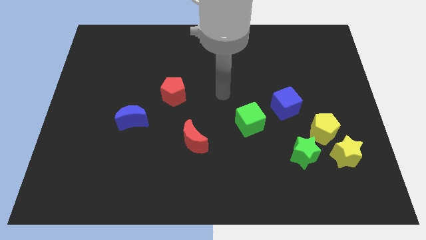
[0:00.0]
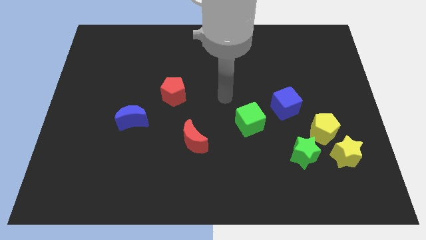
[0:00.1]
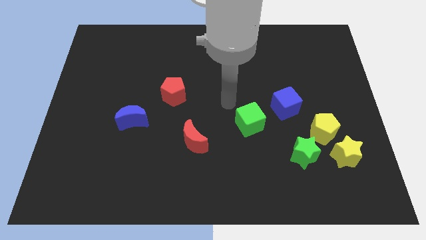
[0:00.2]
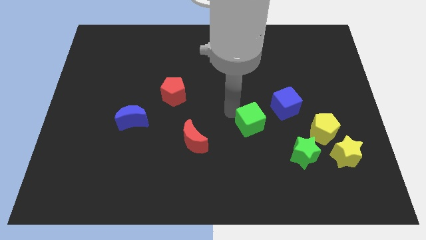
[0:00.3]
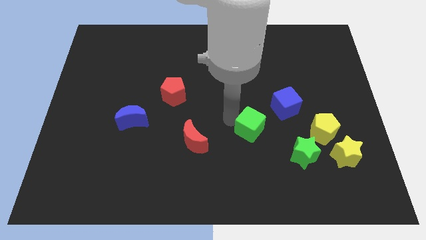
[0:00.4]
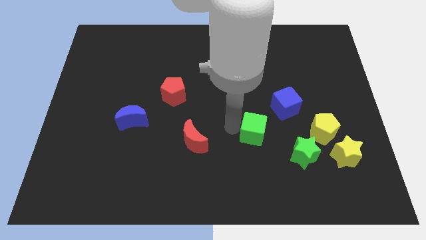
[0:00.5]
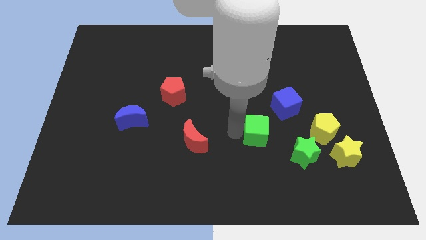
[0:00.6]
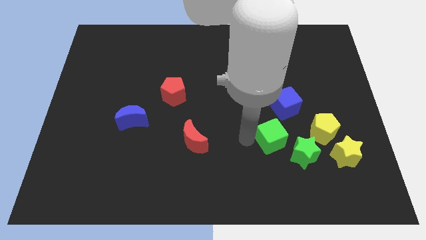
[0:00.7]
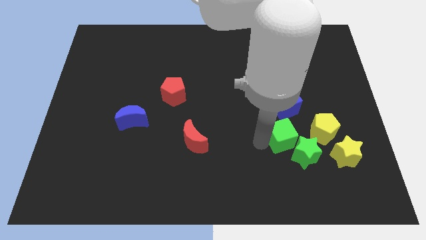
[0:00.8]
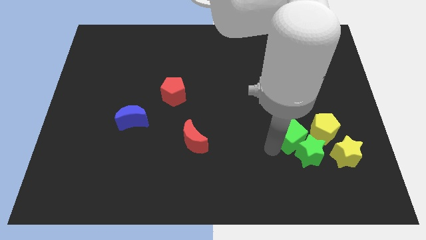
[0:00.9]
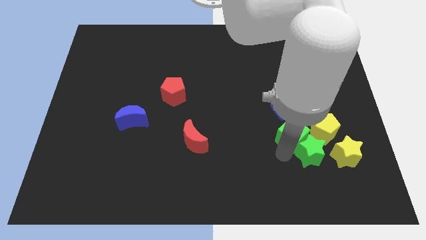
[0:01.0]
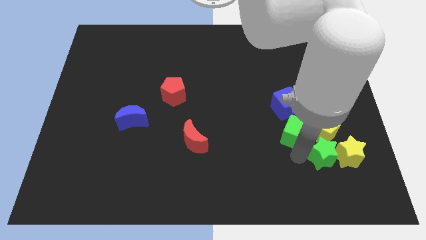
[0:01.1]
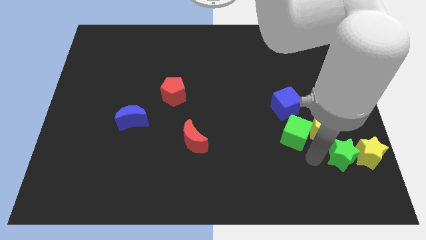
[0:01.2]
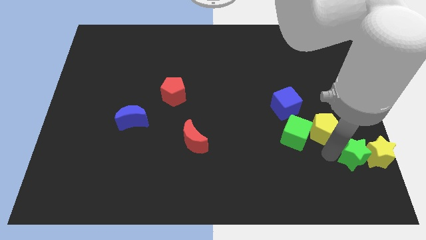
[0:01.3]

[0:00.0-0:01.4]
move the yellow pentagon away from the yellow star and green star

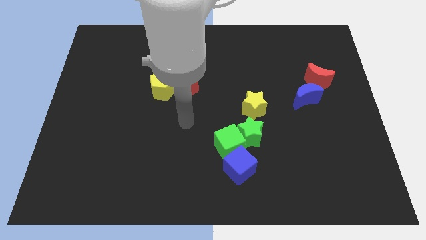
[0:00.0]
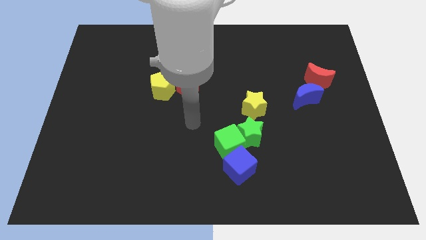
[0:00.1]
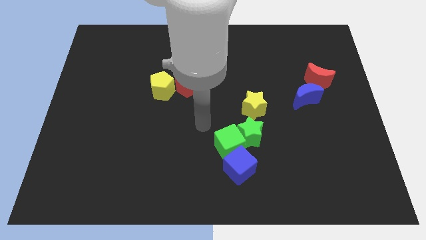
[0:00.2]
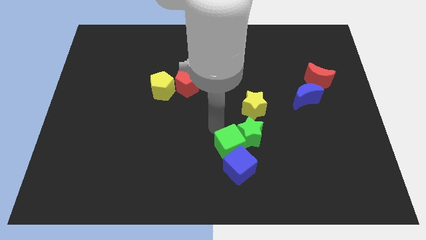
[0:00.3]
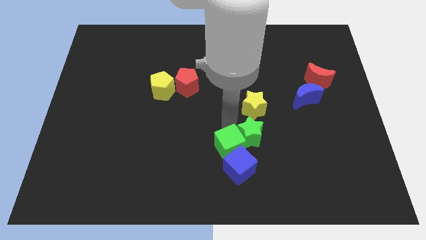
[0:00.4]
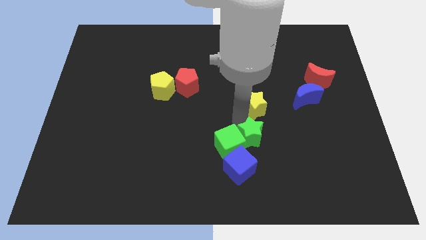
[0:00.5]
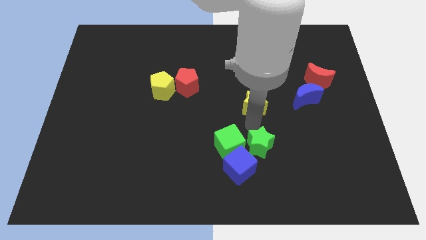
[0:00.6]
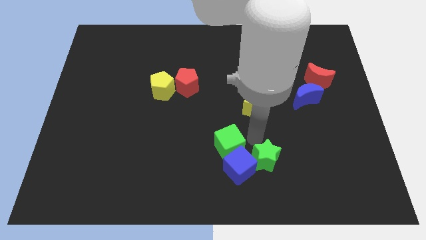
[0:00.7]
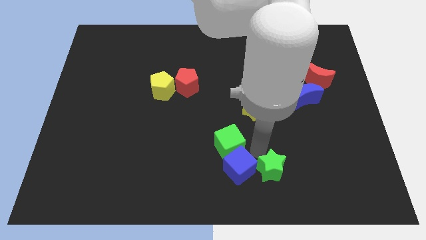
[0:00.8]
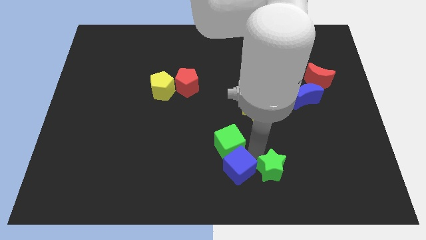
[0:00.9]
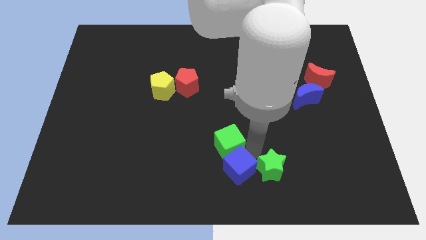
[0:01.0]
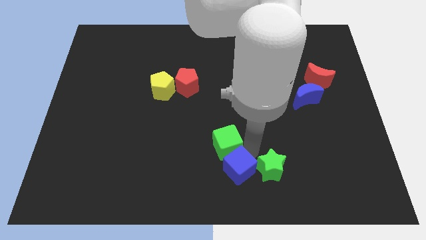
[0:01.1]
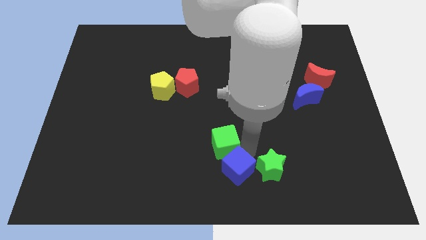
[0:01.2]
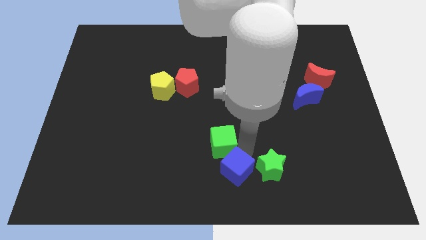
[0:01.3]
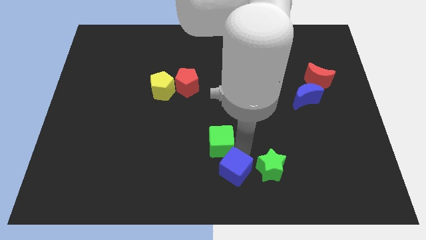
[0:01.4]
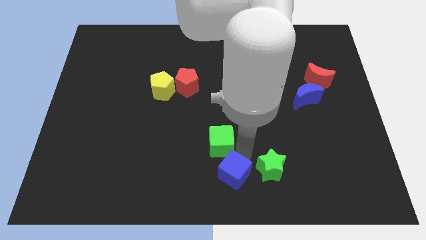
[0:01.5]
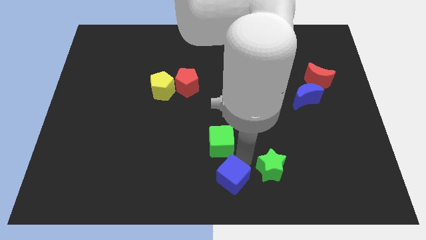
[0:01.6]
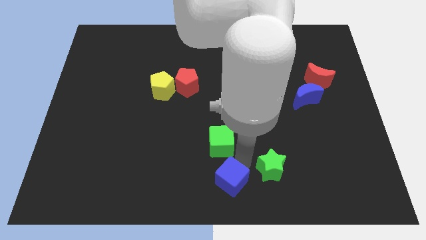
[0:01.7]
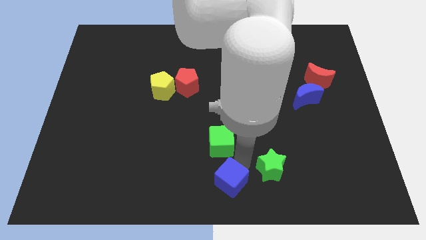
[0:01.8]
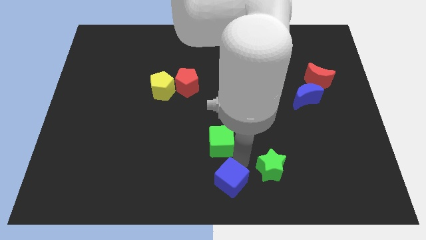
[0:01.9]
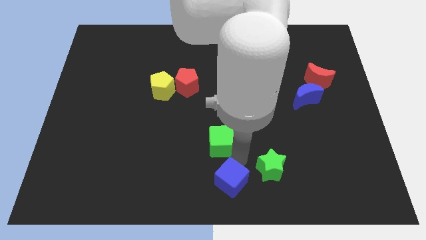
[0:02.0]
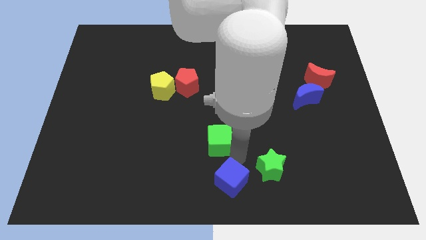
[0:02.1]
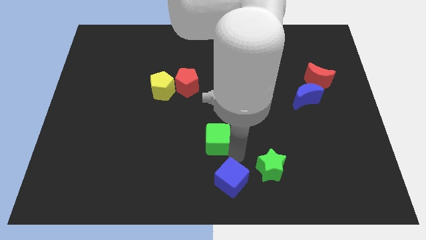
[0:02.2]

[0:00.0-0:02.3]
separate the green cube from the green star and blue cube

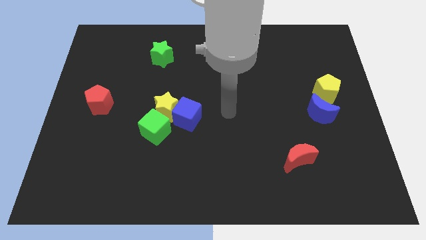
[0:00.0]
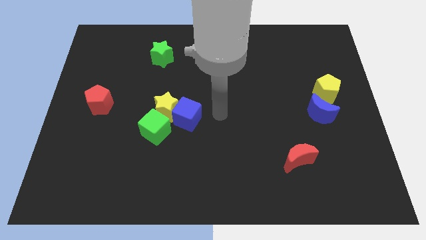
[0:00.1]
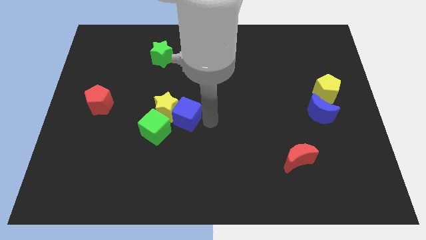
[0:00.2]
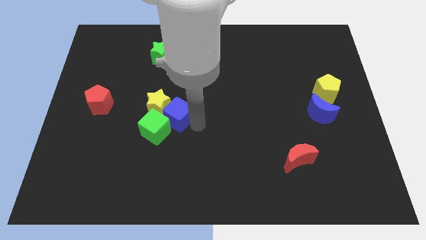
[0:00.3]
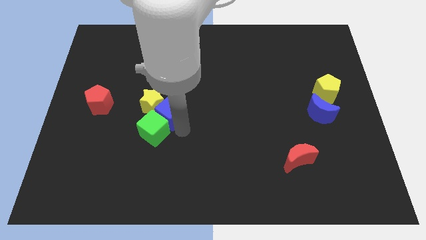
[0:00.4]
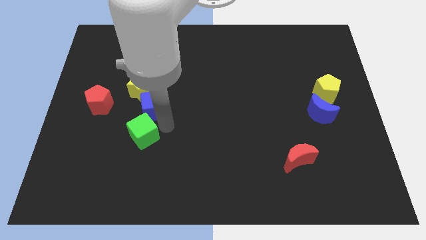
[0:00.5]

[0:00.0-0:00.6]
move the yellow star away from the blue cube and green cube

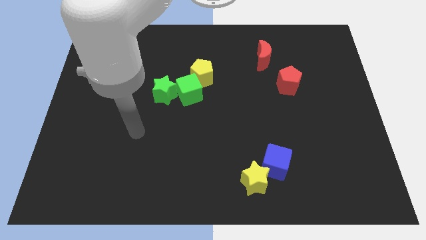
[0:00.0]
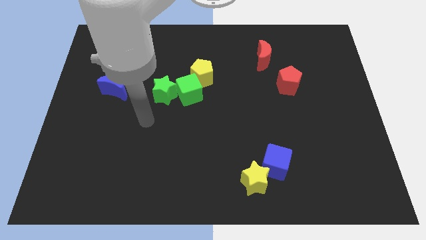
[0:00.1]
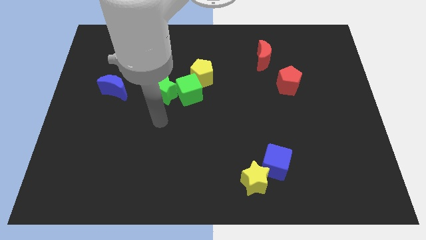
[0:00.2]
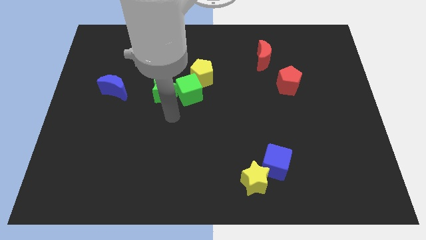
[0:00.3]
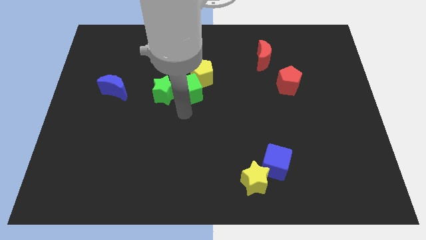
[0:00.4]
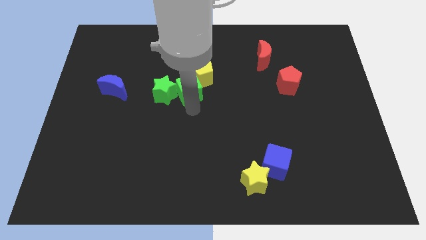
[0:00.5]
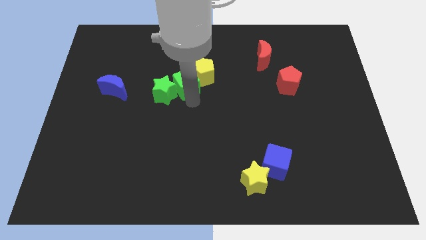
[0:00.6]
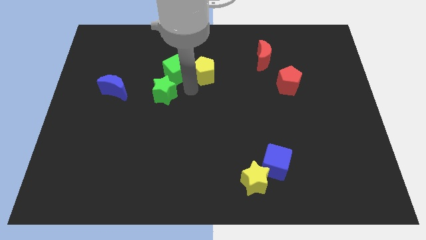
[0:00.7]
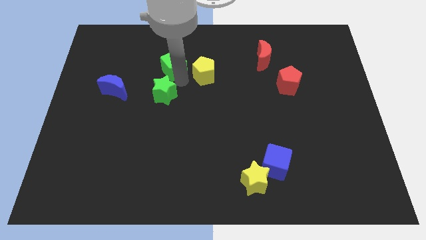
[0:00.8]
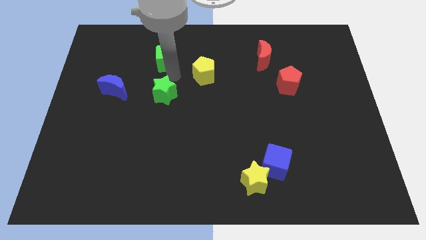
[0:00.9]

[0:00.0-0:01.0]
move the green star away from the green cube

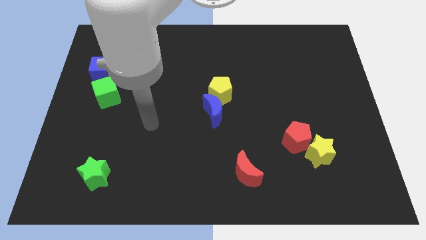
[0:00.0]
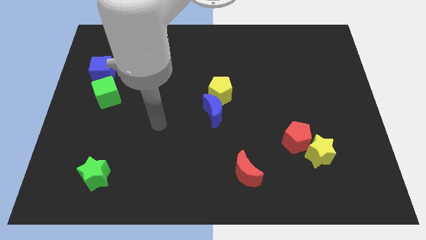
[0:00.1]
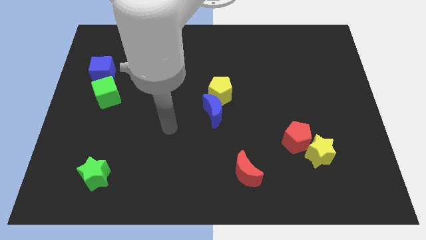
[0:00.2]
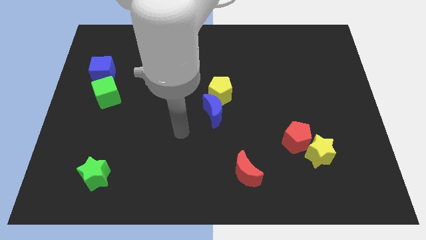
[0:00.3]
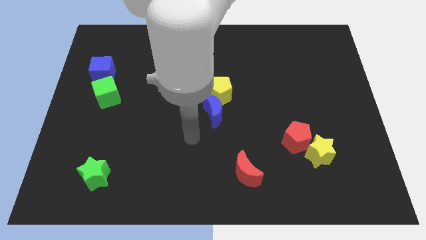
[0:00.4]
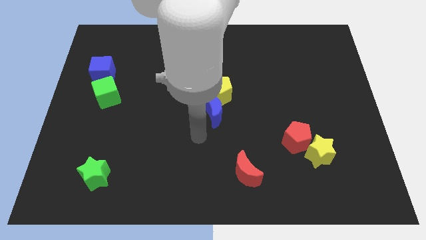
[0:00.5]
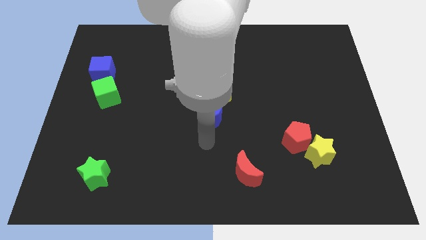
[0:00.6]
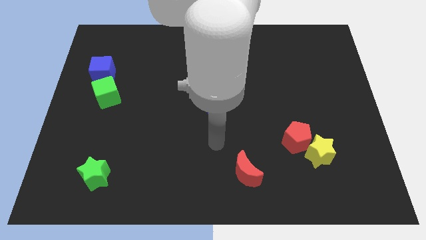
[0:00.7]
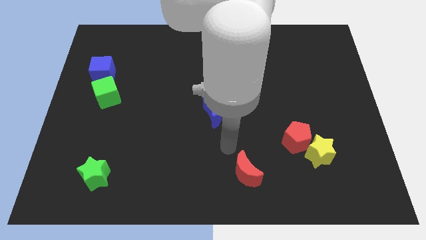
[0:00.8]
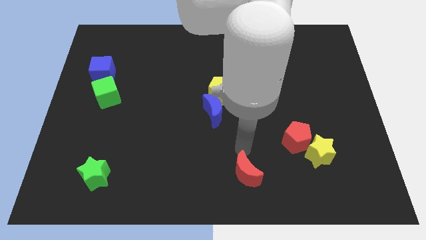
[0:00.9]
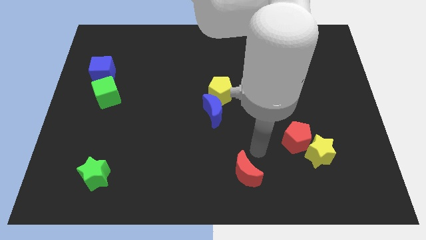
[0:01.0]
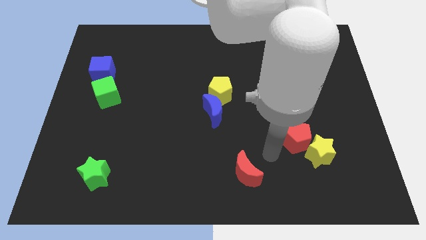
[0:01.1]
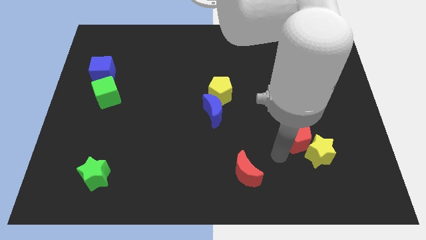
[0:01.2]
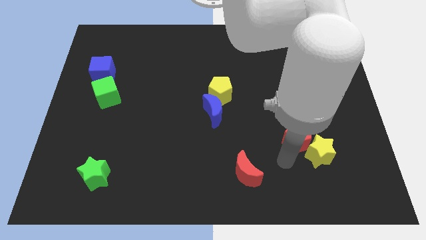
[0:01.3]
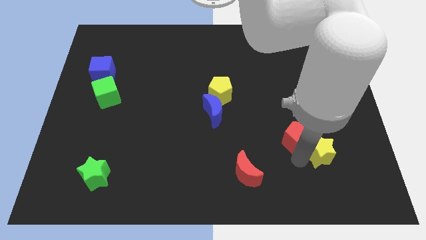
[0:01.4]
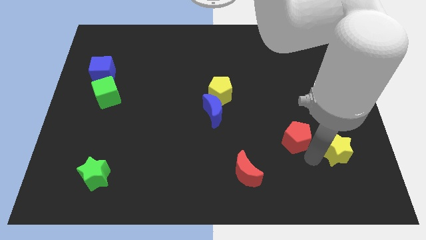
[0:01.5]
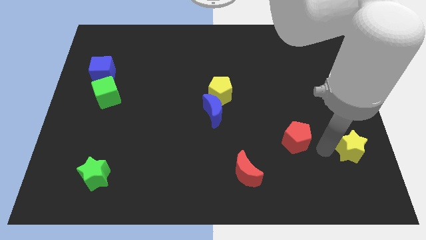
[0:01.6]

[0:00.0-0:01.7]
separate the red pentagon from the yellow star

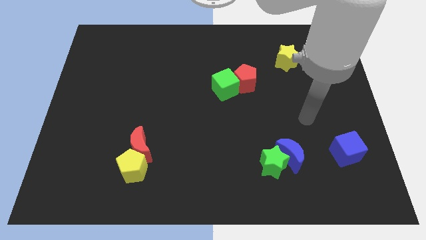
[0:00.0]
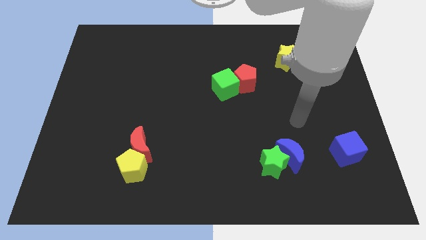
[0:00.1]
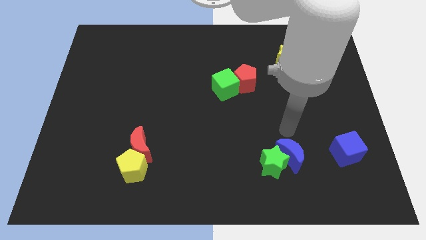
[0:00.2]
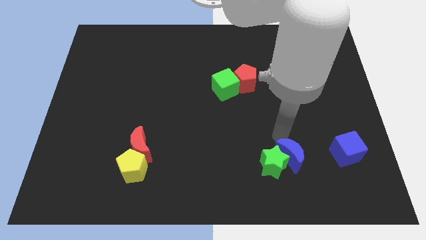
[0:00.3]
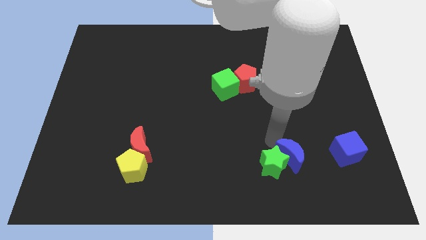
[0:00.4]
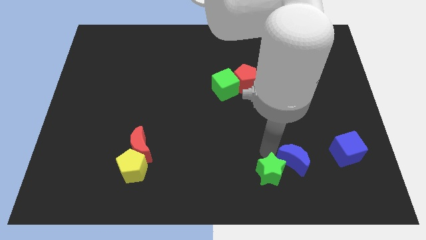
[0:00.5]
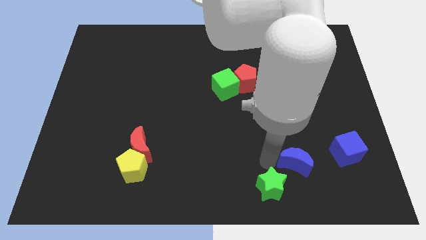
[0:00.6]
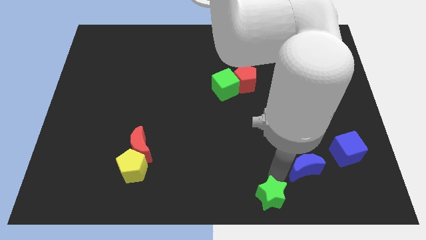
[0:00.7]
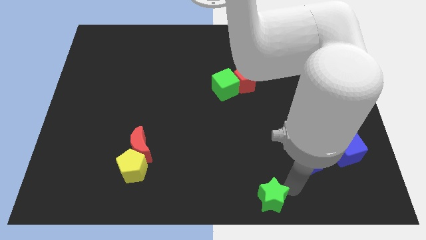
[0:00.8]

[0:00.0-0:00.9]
separate the blue moon from the green star

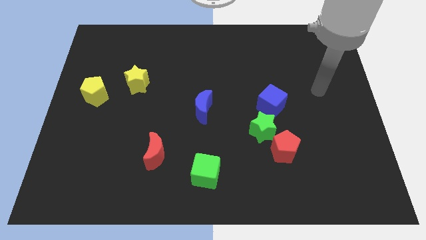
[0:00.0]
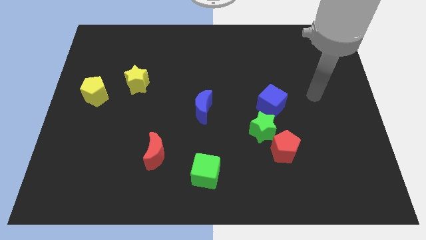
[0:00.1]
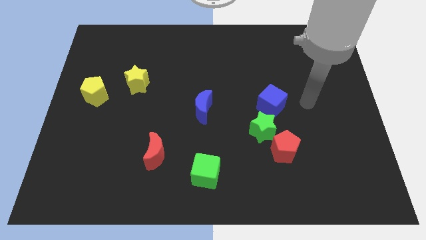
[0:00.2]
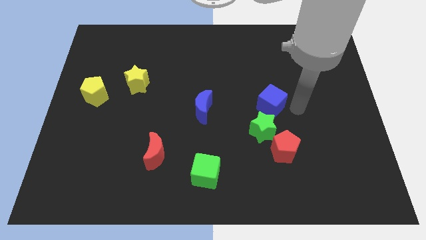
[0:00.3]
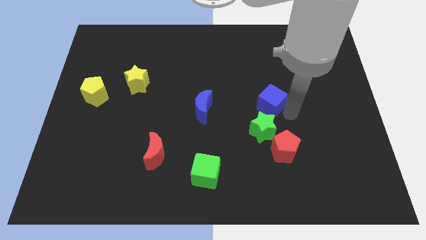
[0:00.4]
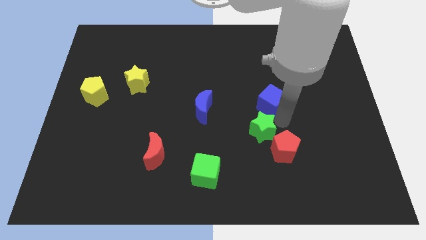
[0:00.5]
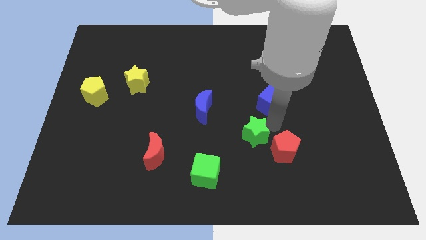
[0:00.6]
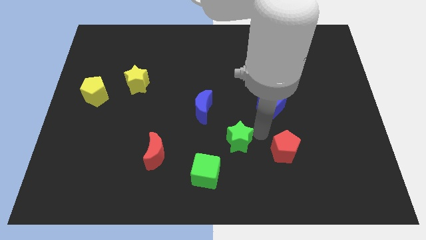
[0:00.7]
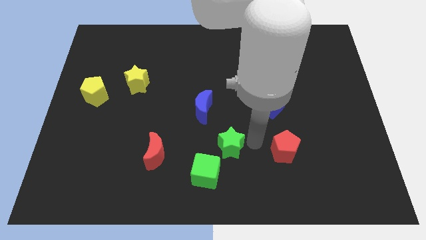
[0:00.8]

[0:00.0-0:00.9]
pull the red pentagon apart from the green star

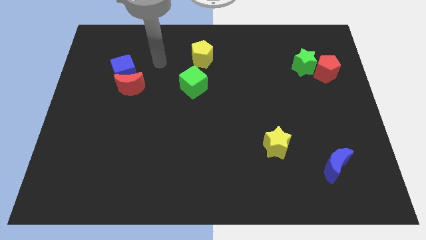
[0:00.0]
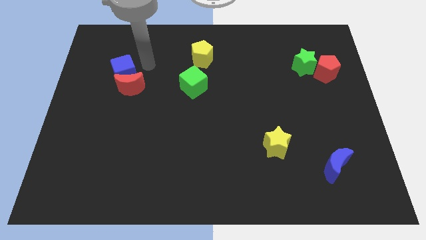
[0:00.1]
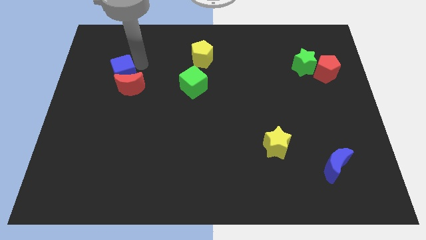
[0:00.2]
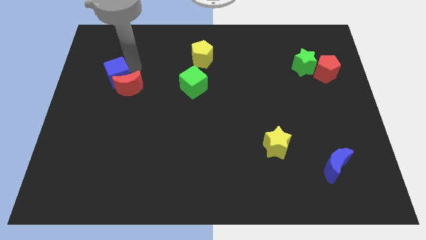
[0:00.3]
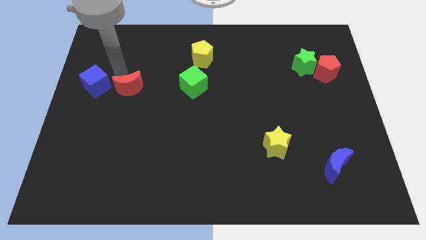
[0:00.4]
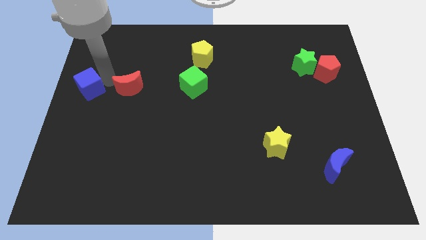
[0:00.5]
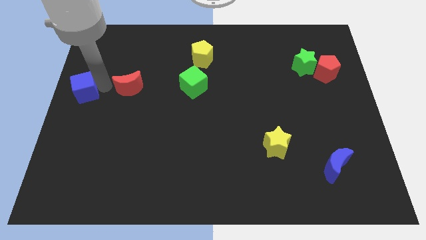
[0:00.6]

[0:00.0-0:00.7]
move the red moon away from the blue cube
